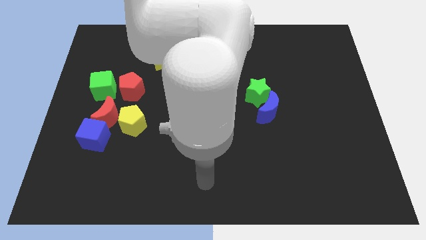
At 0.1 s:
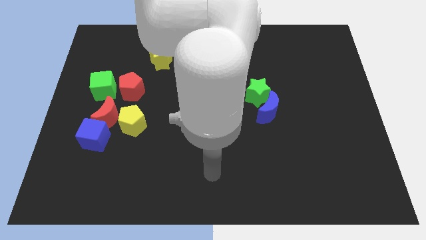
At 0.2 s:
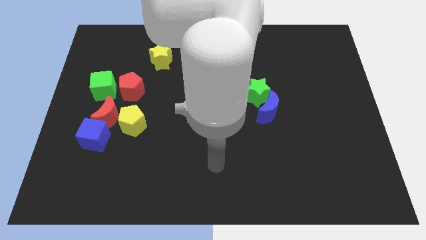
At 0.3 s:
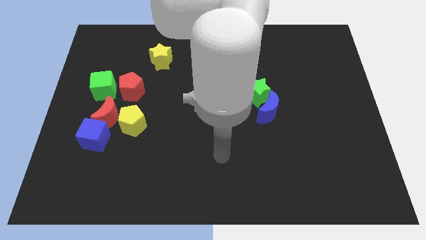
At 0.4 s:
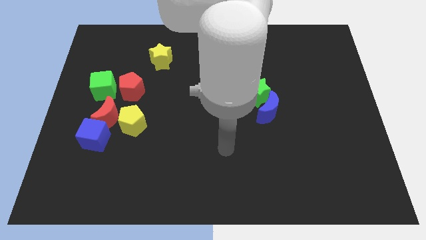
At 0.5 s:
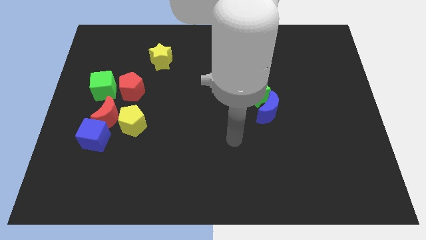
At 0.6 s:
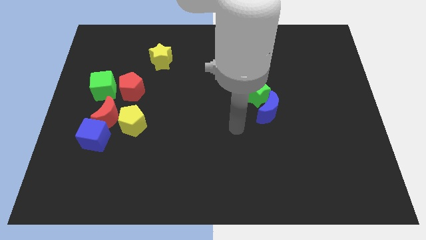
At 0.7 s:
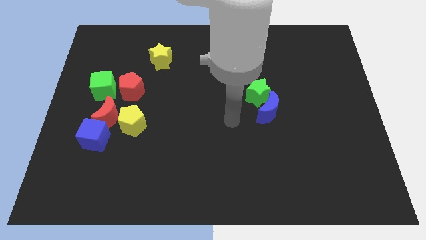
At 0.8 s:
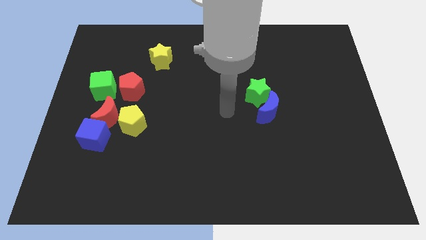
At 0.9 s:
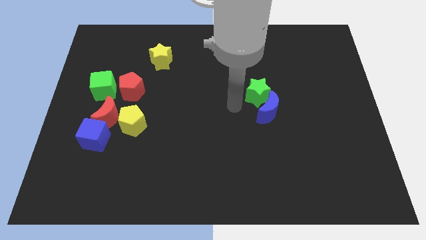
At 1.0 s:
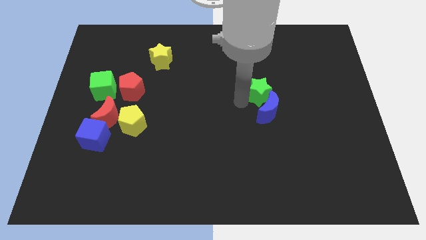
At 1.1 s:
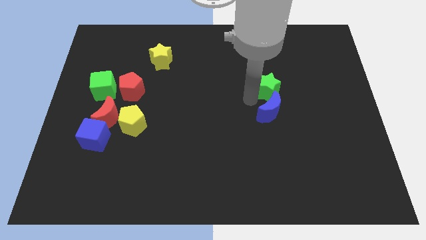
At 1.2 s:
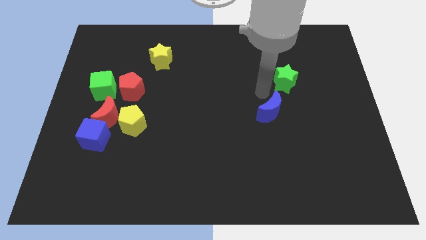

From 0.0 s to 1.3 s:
move the blue moon away from the green star

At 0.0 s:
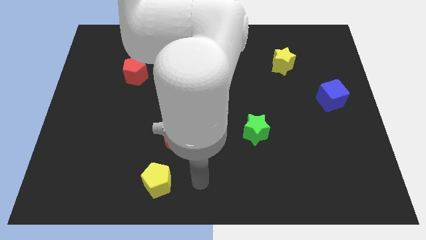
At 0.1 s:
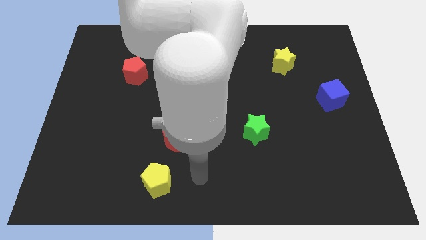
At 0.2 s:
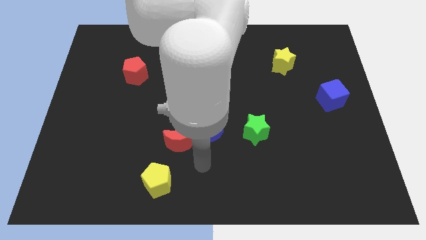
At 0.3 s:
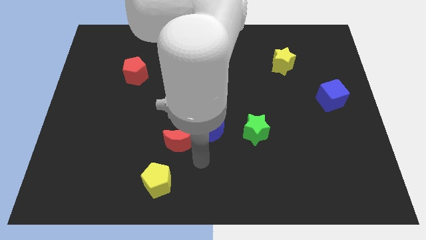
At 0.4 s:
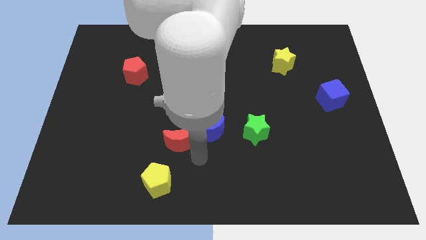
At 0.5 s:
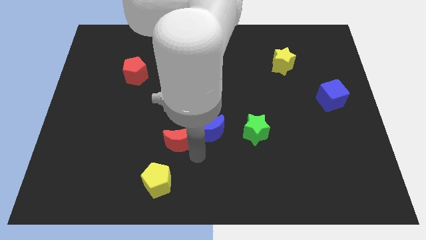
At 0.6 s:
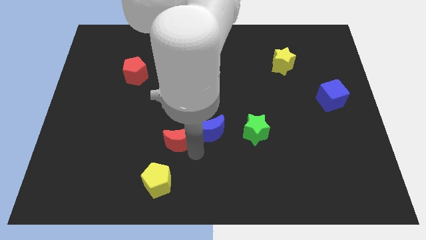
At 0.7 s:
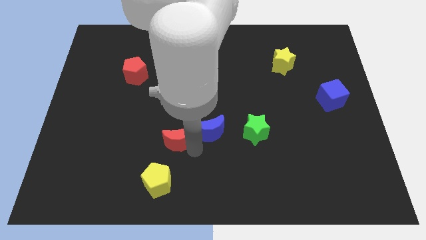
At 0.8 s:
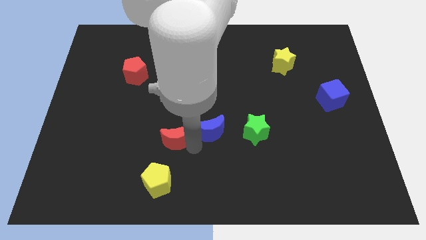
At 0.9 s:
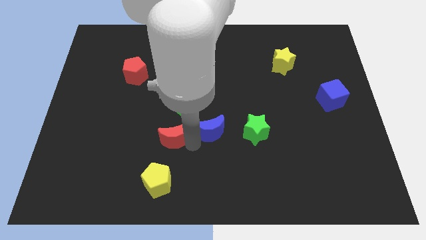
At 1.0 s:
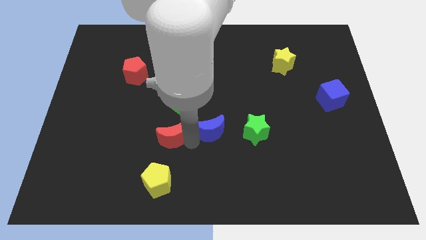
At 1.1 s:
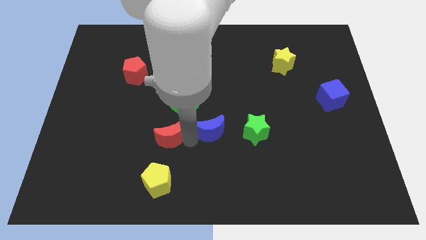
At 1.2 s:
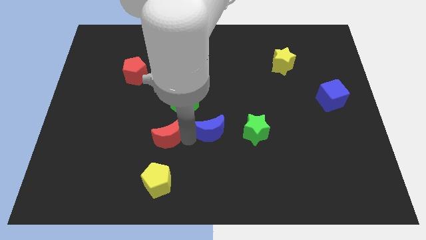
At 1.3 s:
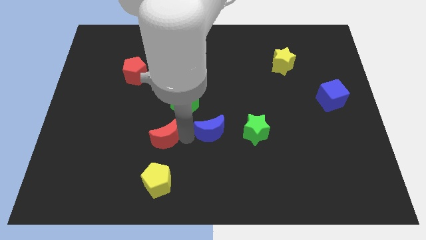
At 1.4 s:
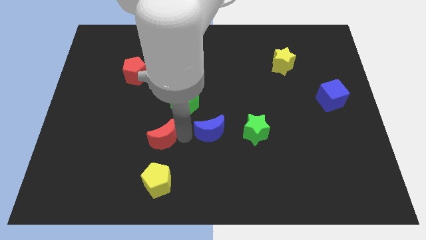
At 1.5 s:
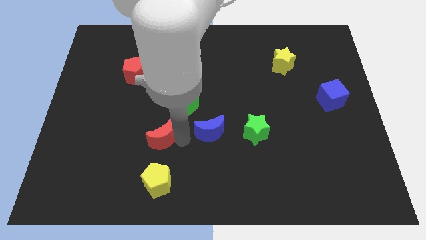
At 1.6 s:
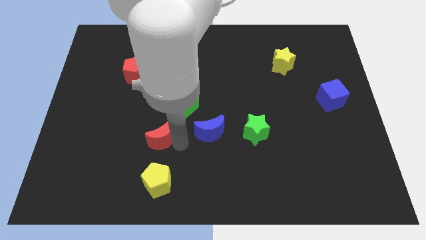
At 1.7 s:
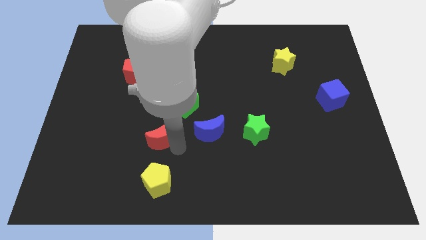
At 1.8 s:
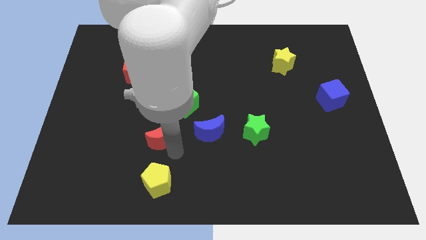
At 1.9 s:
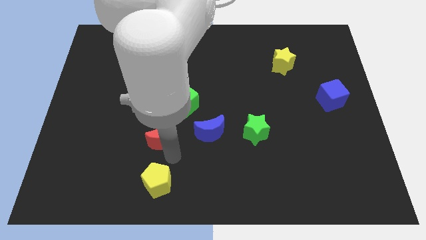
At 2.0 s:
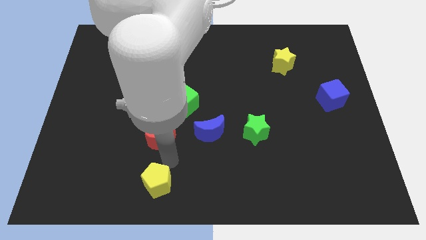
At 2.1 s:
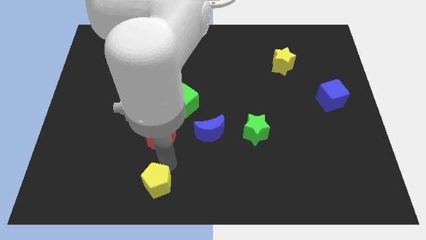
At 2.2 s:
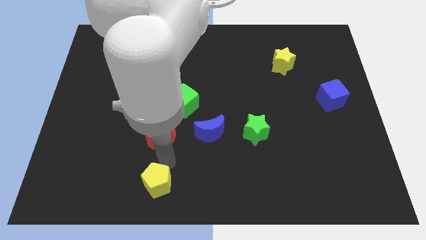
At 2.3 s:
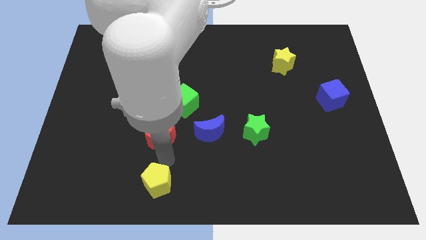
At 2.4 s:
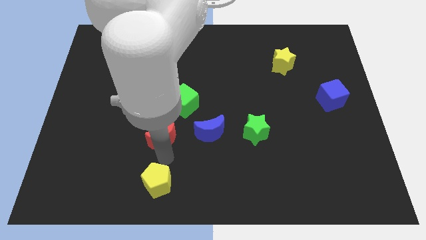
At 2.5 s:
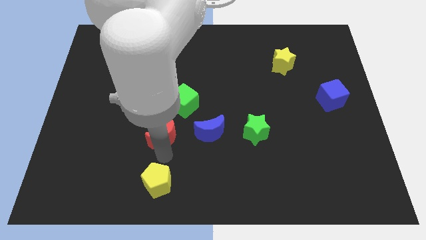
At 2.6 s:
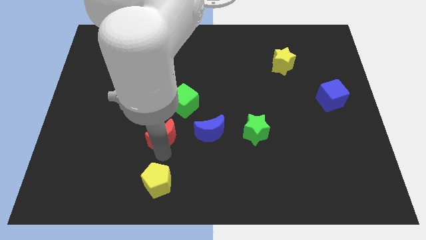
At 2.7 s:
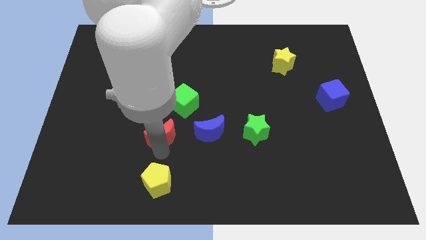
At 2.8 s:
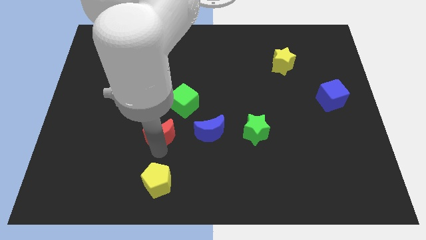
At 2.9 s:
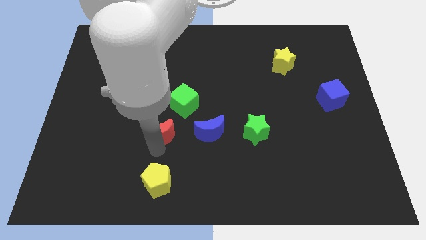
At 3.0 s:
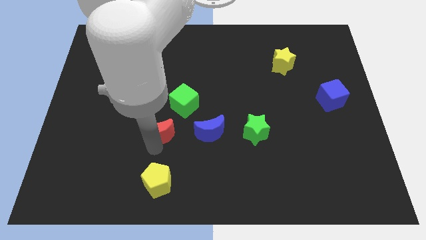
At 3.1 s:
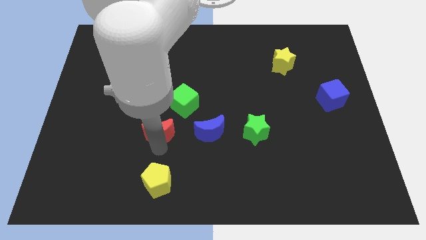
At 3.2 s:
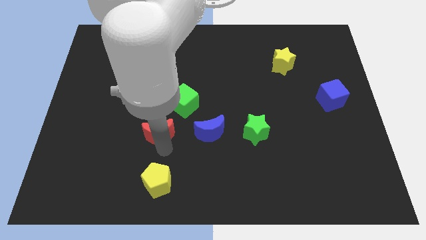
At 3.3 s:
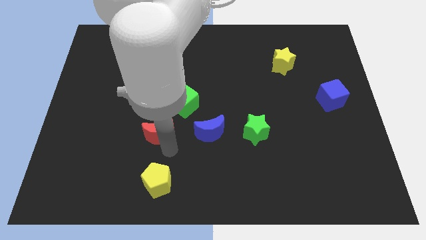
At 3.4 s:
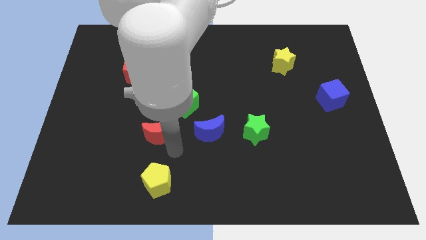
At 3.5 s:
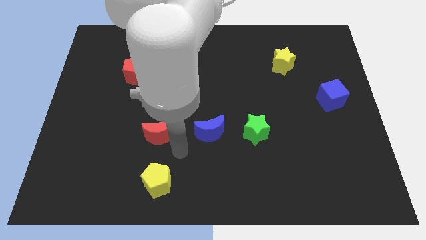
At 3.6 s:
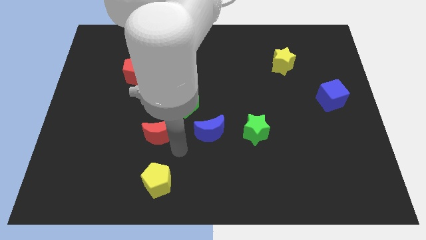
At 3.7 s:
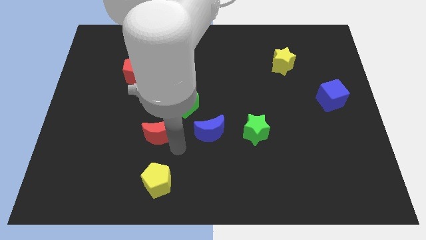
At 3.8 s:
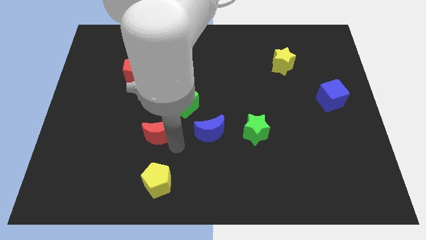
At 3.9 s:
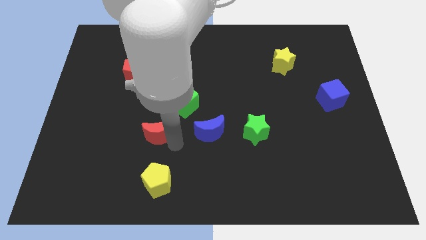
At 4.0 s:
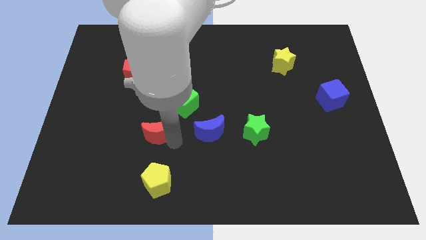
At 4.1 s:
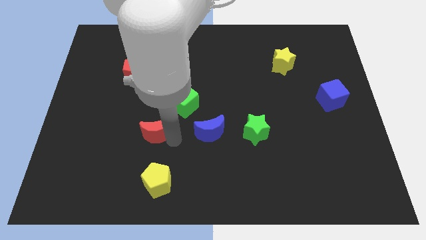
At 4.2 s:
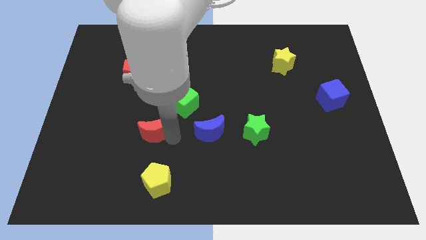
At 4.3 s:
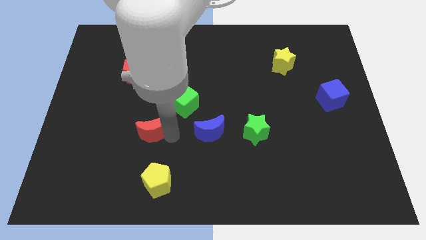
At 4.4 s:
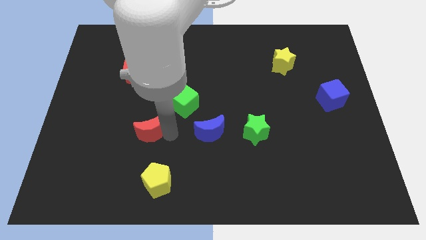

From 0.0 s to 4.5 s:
move the red moon away from the blue moon and yellow pentagon

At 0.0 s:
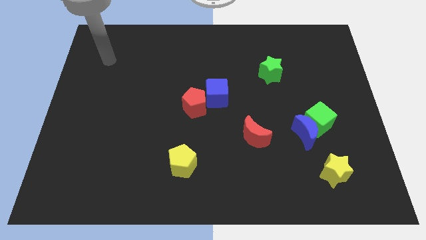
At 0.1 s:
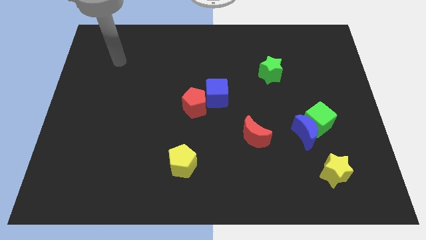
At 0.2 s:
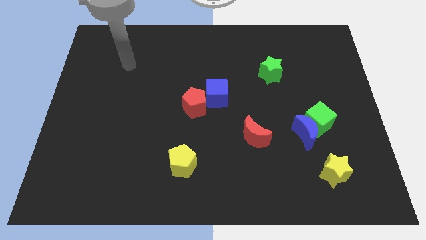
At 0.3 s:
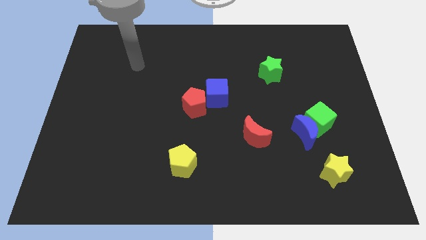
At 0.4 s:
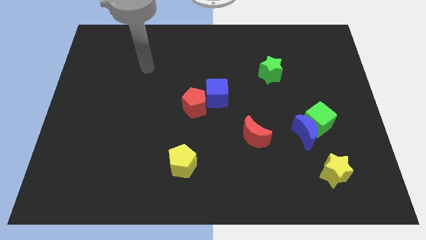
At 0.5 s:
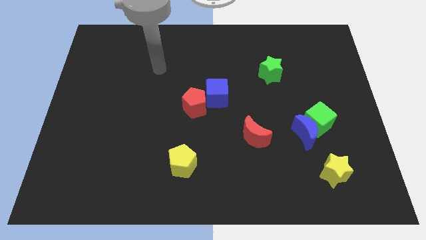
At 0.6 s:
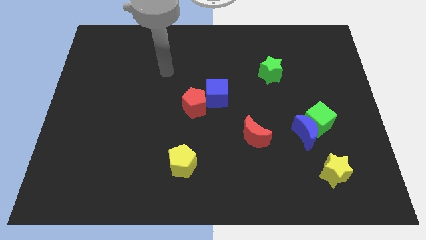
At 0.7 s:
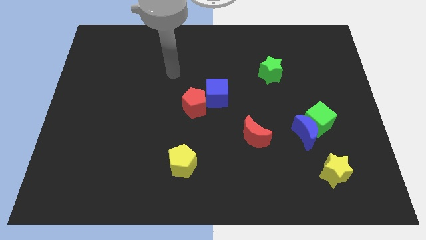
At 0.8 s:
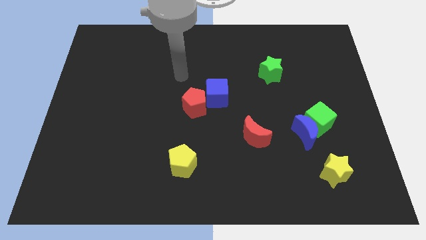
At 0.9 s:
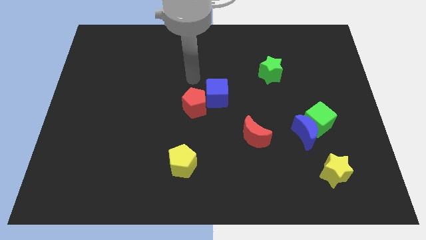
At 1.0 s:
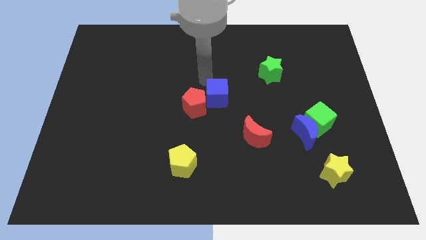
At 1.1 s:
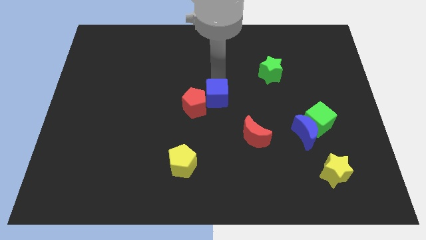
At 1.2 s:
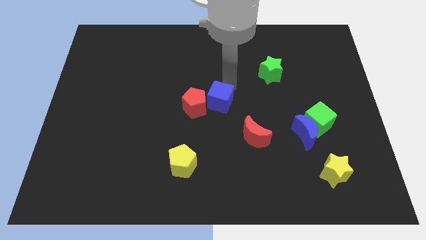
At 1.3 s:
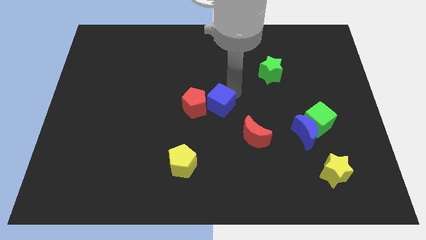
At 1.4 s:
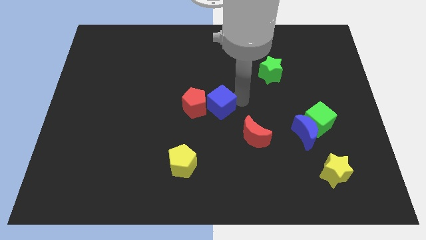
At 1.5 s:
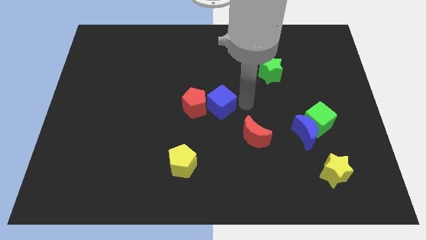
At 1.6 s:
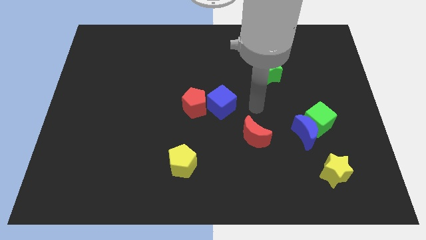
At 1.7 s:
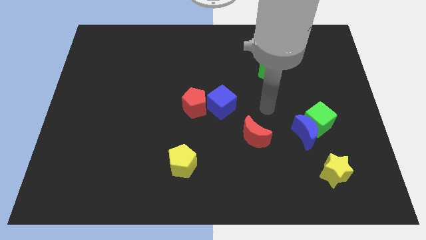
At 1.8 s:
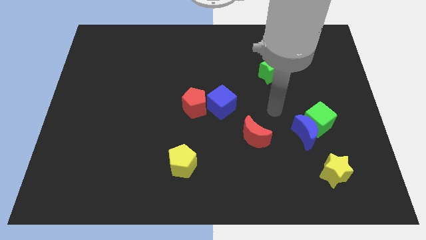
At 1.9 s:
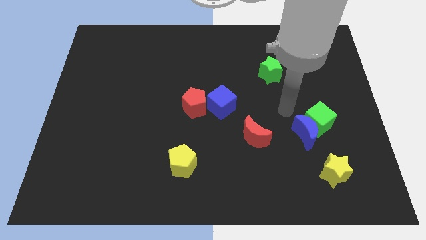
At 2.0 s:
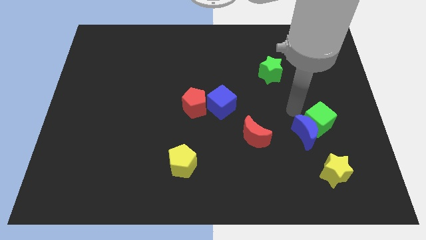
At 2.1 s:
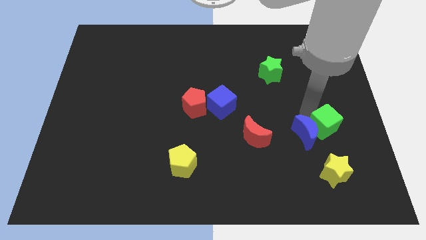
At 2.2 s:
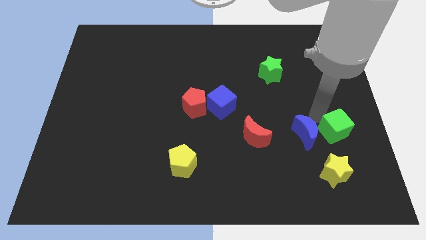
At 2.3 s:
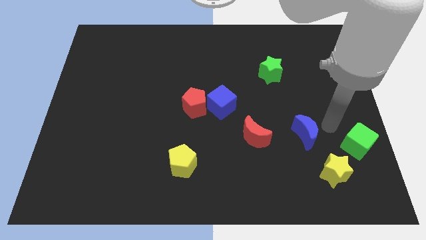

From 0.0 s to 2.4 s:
separate the blue moon from the green cube

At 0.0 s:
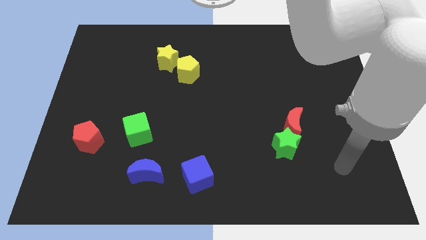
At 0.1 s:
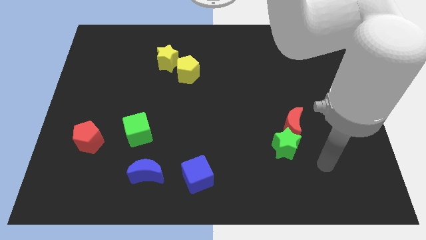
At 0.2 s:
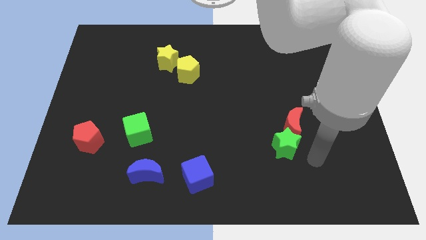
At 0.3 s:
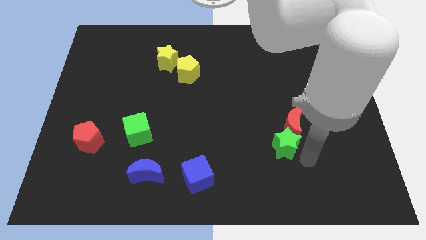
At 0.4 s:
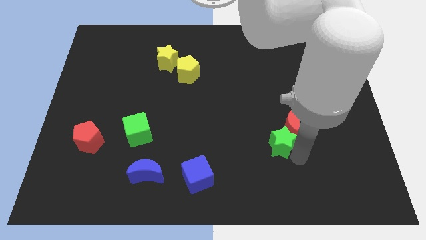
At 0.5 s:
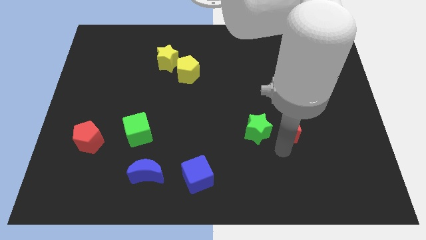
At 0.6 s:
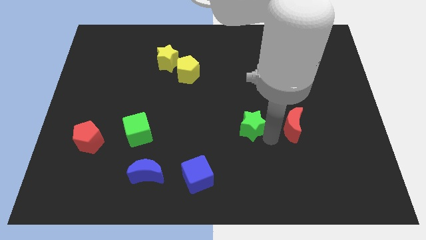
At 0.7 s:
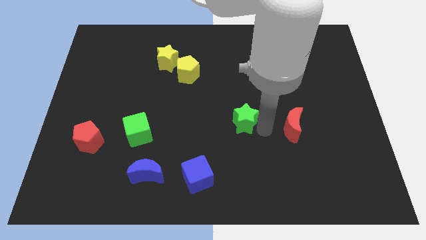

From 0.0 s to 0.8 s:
separate the red moon from the green star

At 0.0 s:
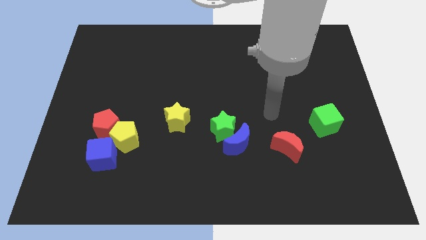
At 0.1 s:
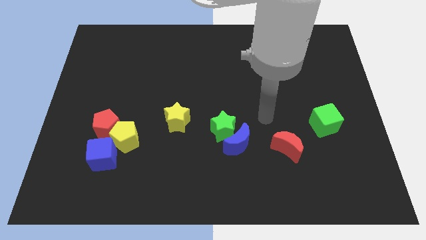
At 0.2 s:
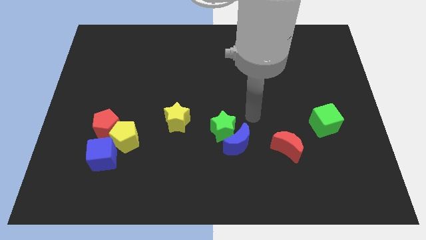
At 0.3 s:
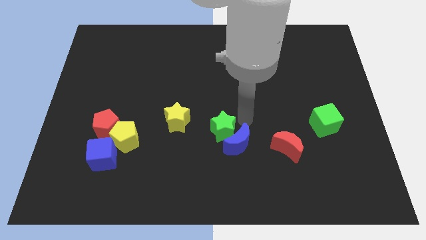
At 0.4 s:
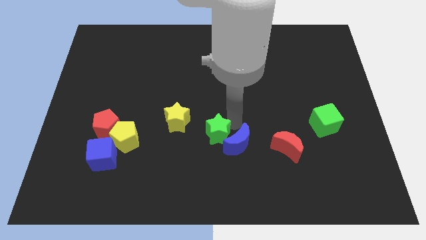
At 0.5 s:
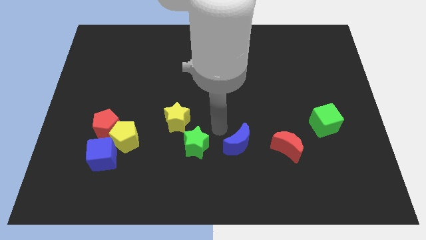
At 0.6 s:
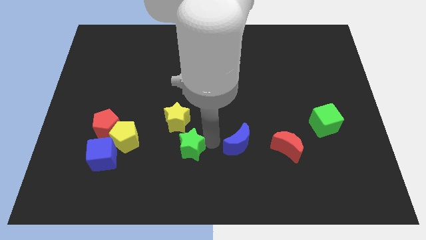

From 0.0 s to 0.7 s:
separate the blue moon from the green star
